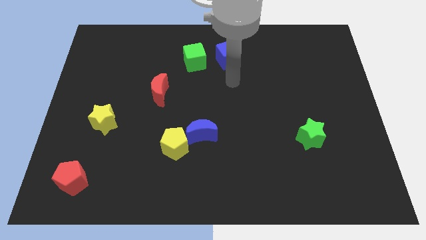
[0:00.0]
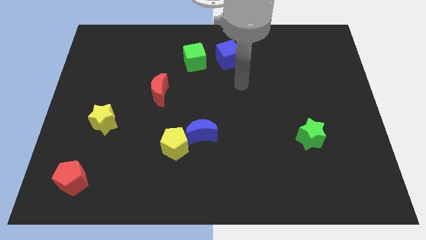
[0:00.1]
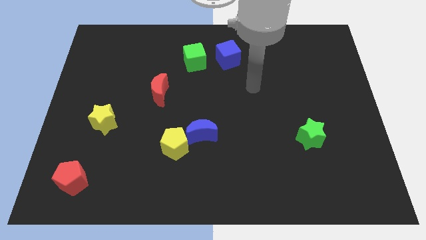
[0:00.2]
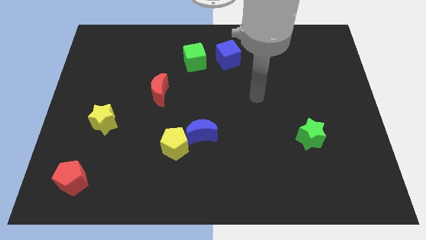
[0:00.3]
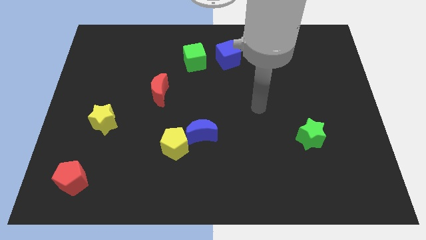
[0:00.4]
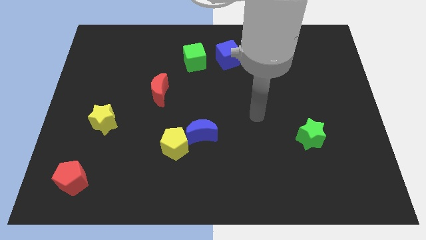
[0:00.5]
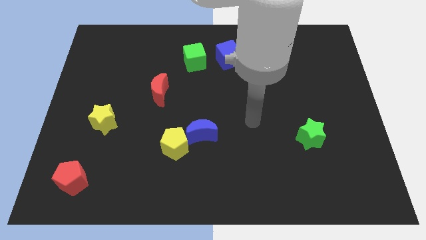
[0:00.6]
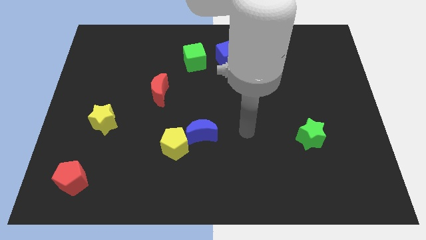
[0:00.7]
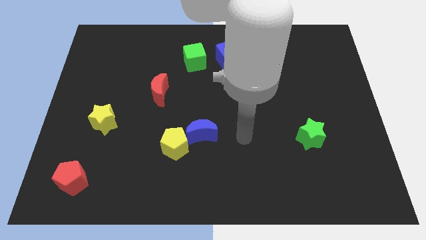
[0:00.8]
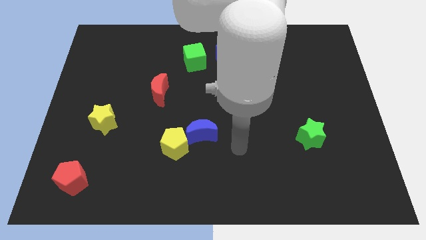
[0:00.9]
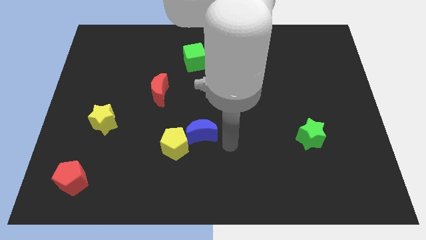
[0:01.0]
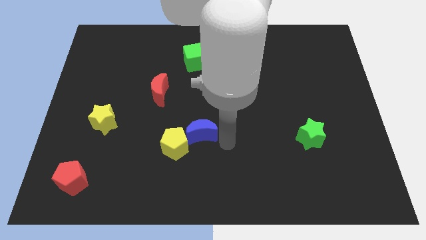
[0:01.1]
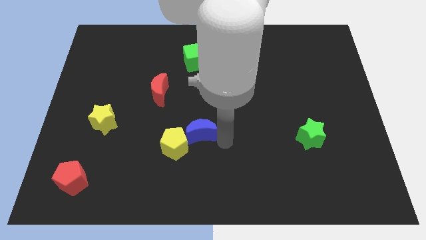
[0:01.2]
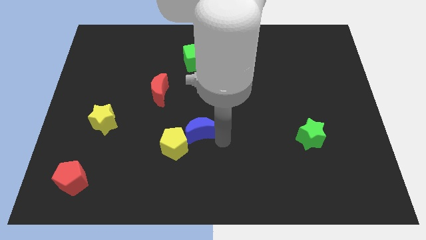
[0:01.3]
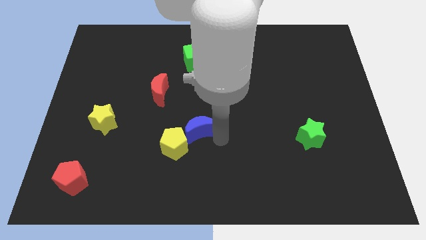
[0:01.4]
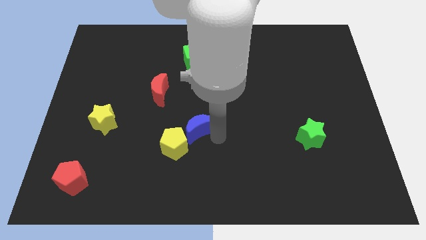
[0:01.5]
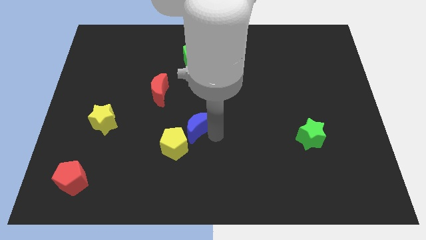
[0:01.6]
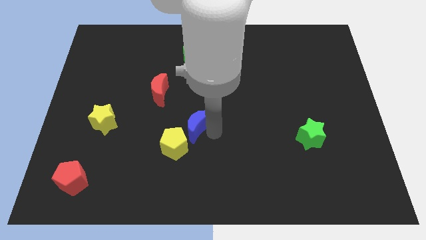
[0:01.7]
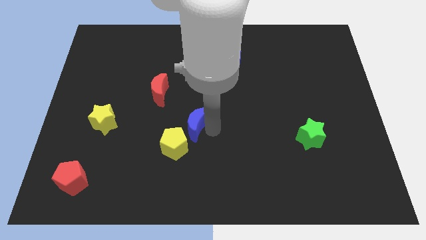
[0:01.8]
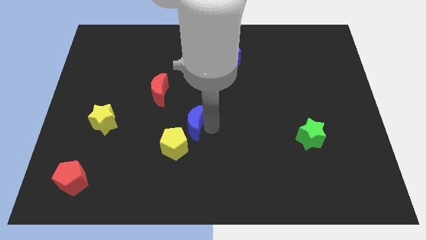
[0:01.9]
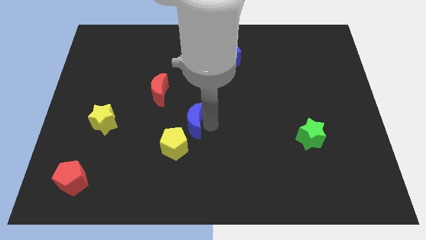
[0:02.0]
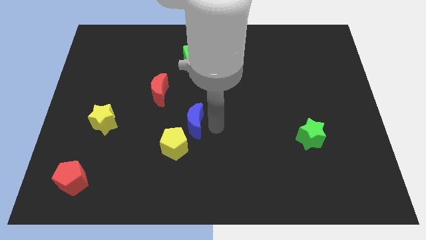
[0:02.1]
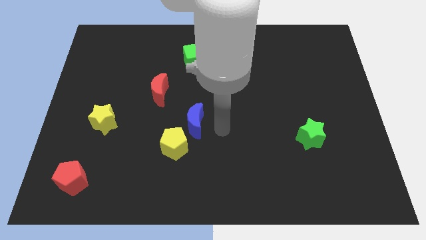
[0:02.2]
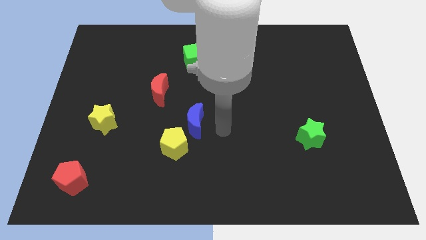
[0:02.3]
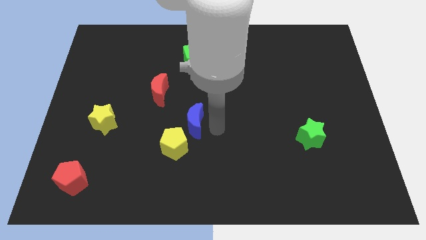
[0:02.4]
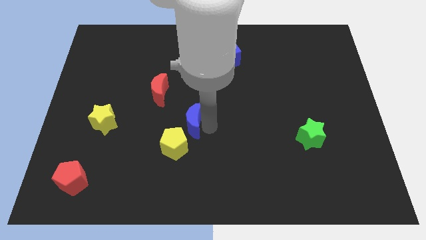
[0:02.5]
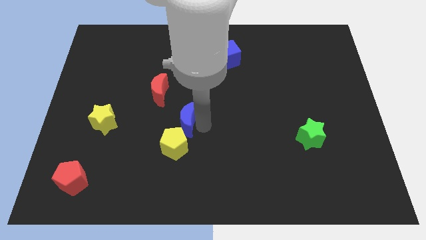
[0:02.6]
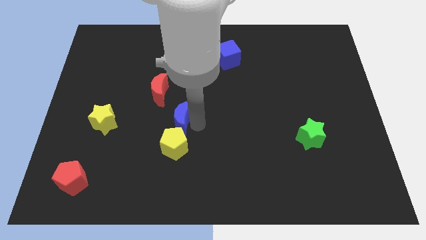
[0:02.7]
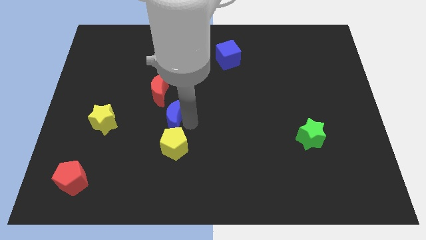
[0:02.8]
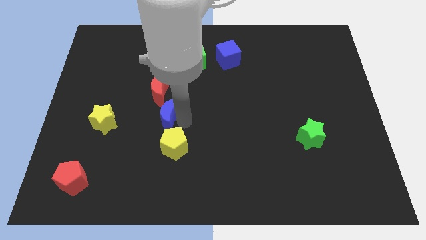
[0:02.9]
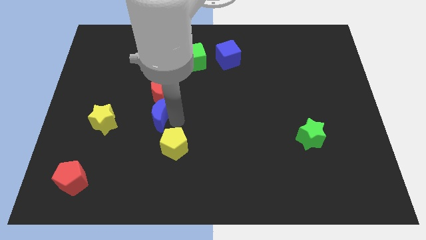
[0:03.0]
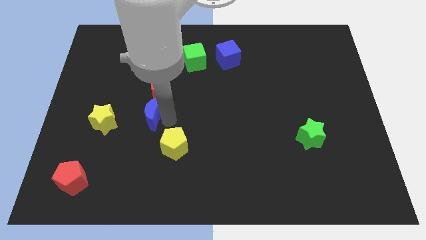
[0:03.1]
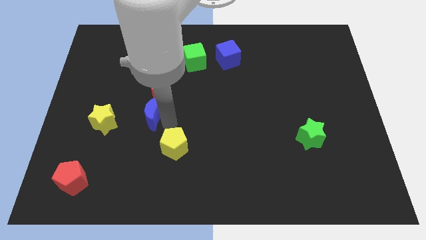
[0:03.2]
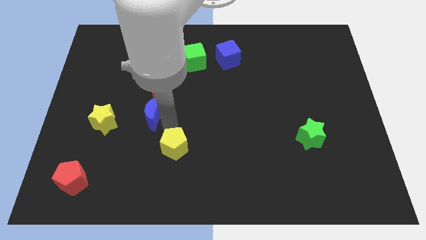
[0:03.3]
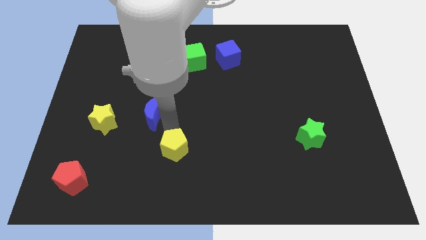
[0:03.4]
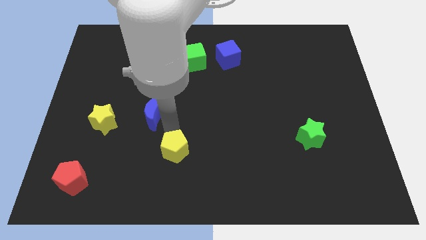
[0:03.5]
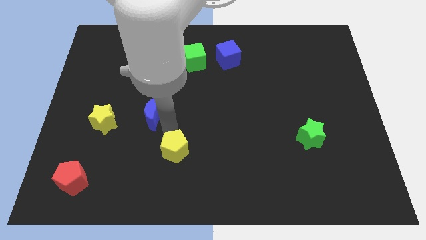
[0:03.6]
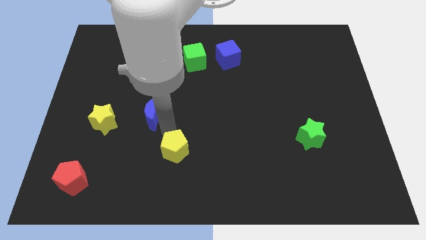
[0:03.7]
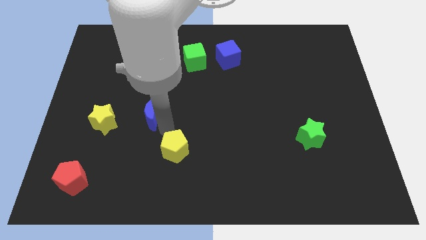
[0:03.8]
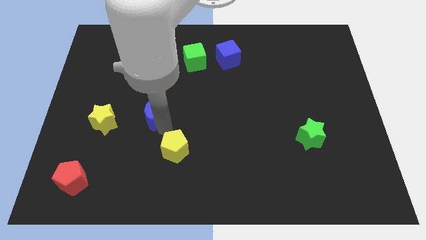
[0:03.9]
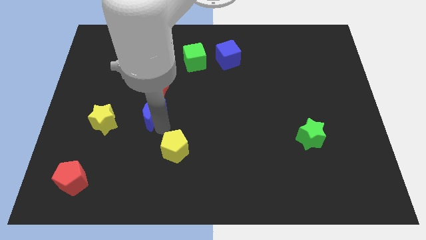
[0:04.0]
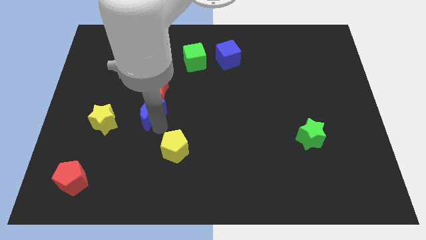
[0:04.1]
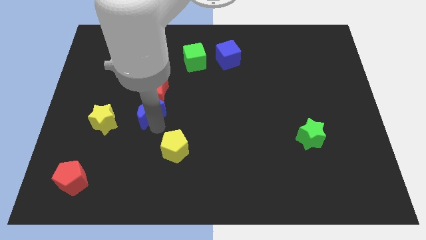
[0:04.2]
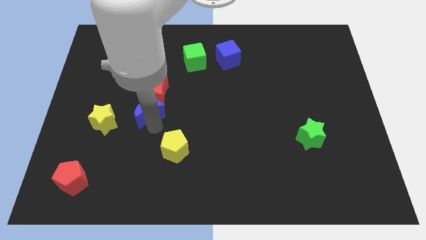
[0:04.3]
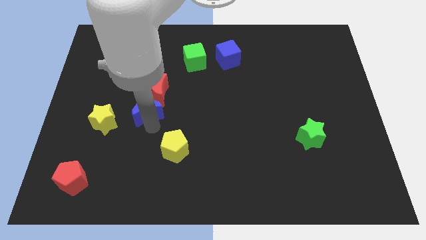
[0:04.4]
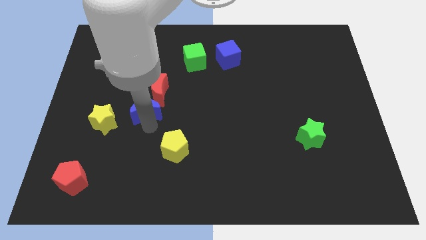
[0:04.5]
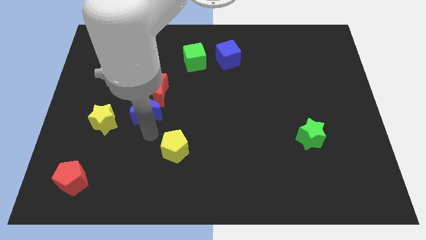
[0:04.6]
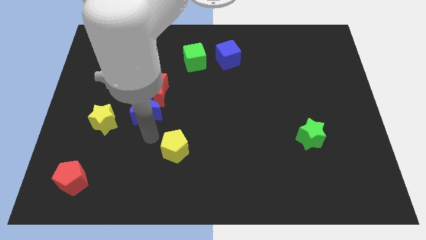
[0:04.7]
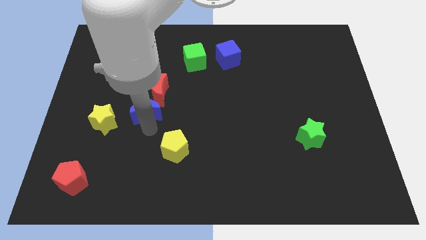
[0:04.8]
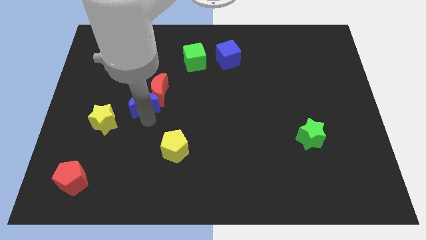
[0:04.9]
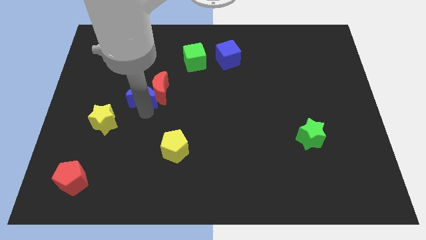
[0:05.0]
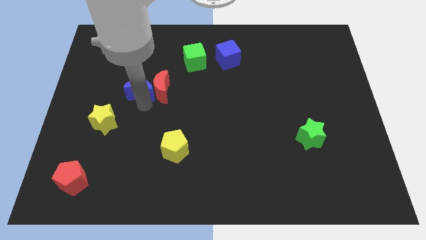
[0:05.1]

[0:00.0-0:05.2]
put the blue moon to the top left side of the red moon

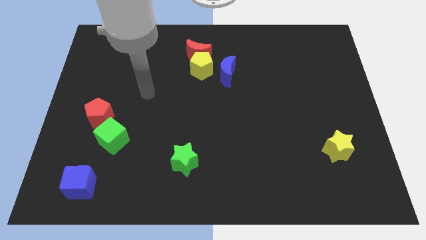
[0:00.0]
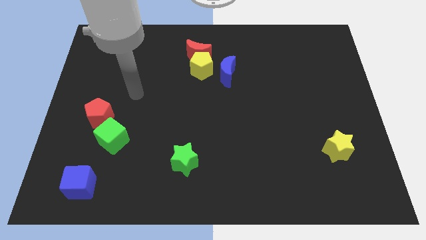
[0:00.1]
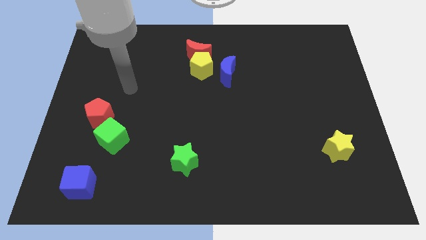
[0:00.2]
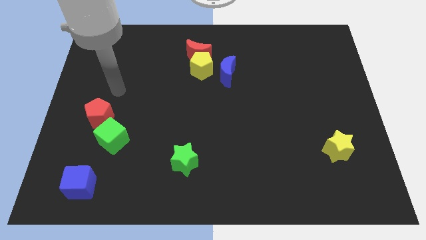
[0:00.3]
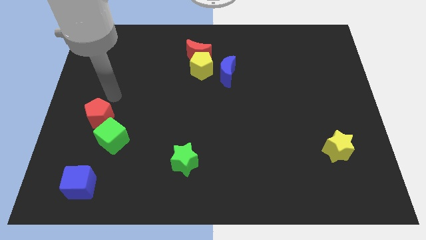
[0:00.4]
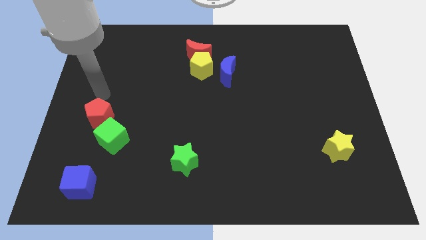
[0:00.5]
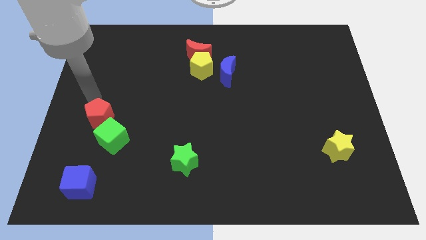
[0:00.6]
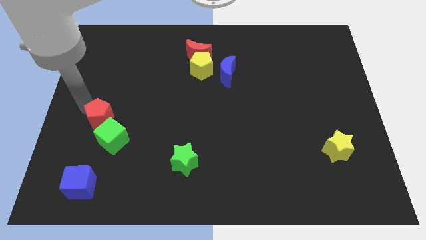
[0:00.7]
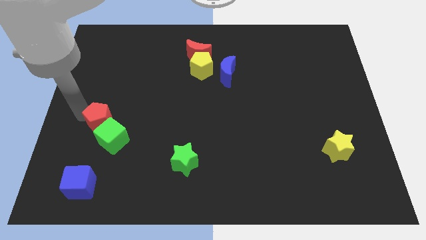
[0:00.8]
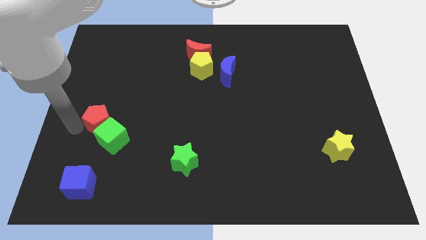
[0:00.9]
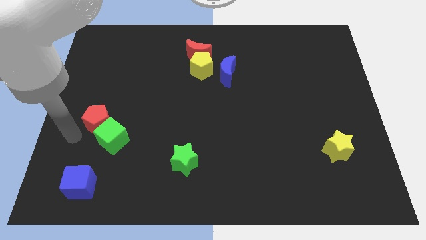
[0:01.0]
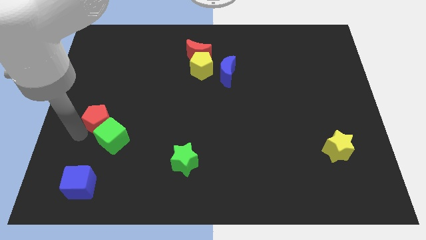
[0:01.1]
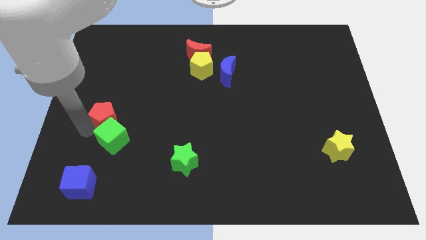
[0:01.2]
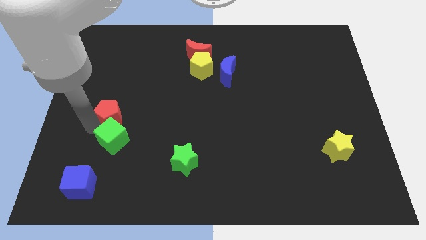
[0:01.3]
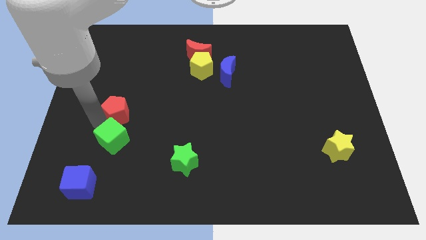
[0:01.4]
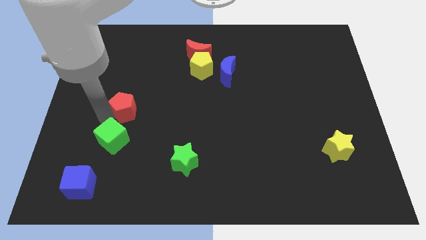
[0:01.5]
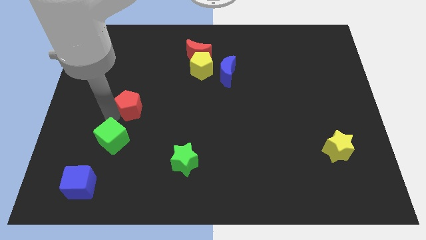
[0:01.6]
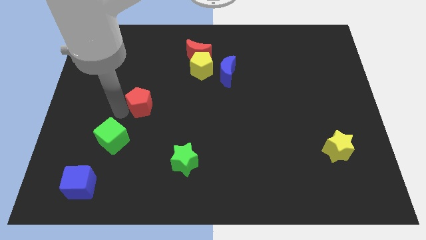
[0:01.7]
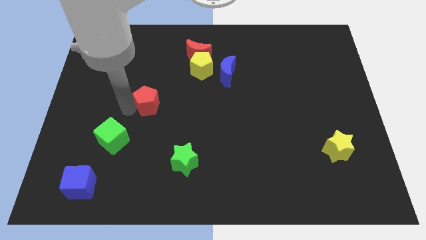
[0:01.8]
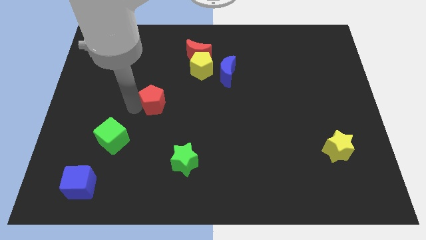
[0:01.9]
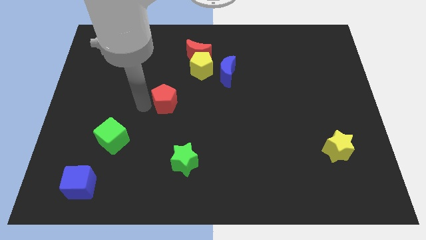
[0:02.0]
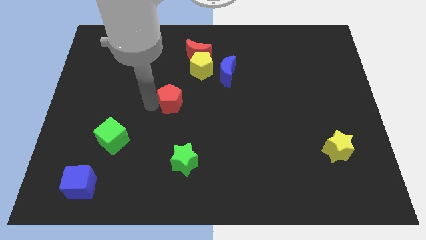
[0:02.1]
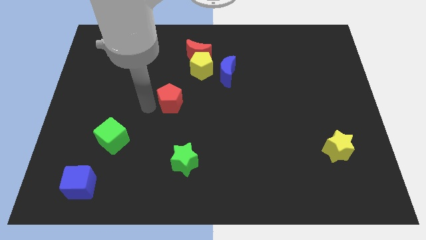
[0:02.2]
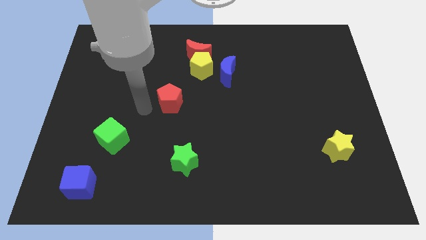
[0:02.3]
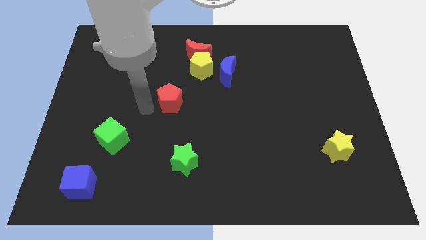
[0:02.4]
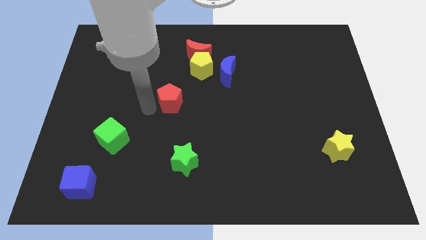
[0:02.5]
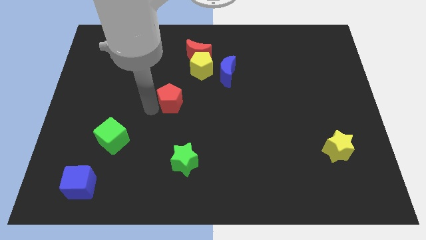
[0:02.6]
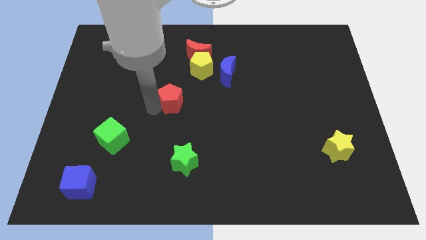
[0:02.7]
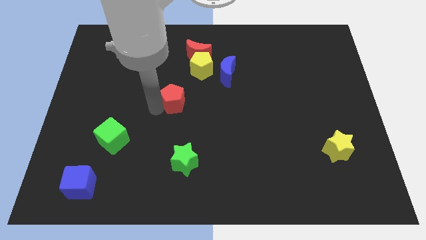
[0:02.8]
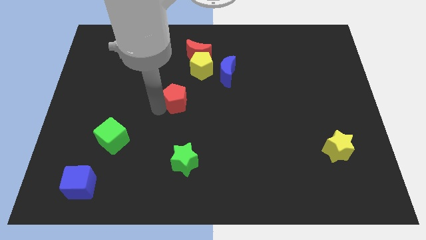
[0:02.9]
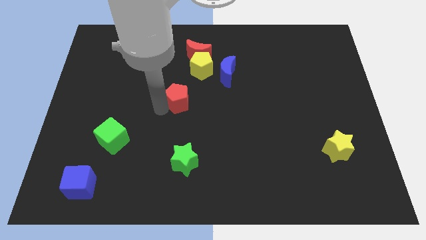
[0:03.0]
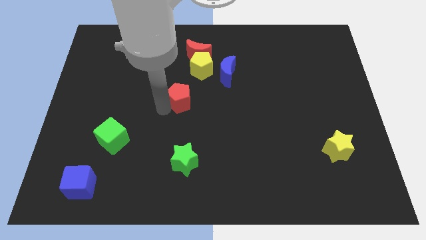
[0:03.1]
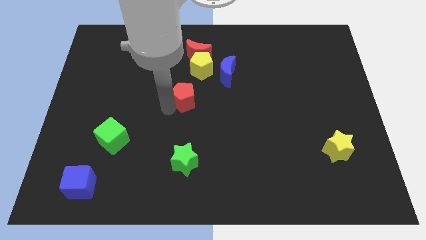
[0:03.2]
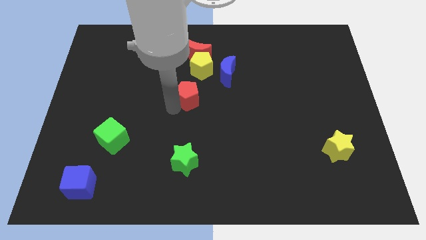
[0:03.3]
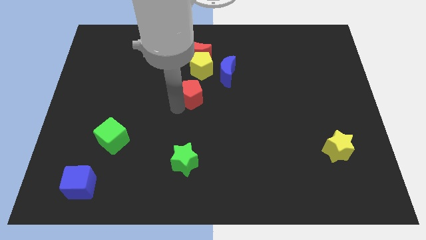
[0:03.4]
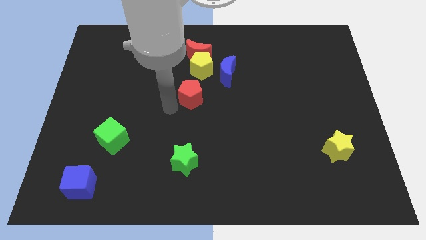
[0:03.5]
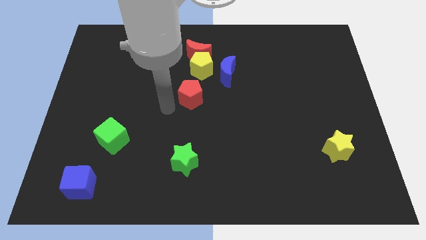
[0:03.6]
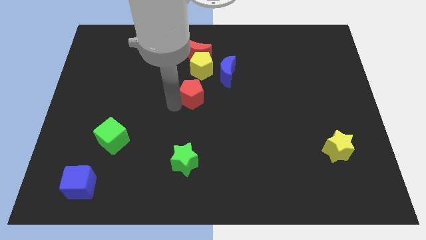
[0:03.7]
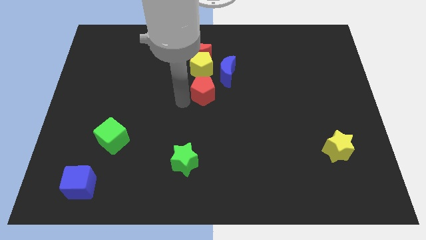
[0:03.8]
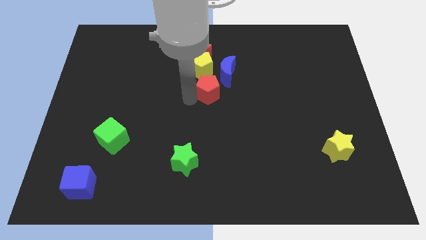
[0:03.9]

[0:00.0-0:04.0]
move the red pentagon diagonally down and to the right of the yellow pentagon
